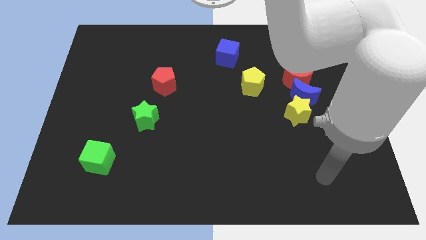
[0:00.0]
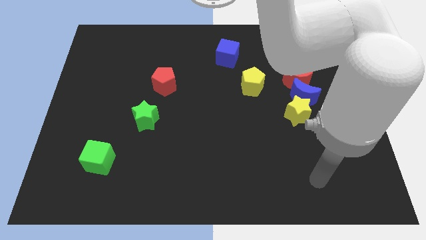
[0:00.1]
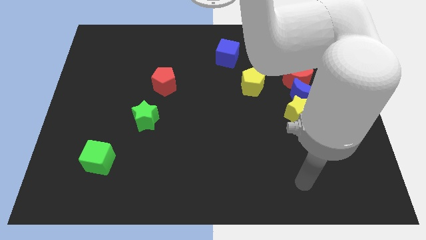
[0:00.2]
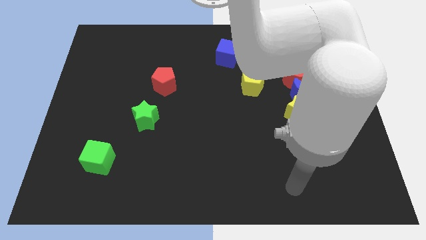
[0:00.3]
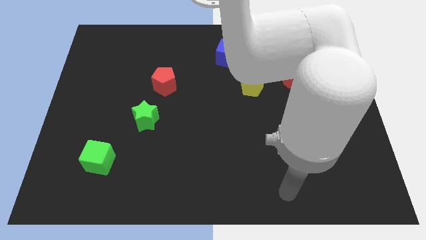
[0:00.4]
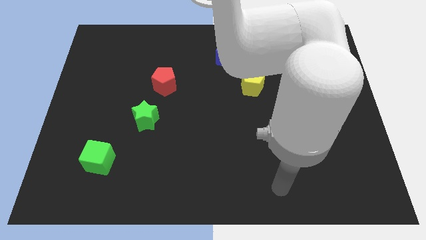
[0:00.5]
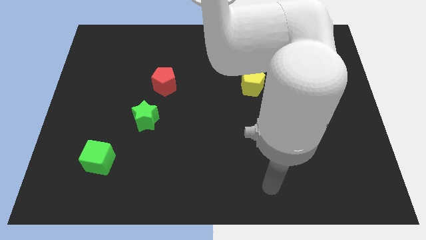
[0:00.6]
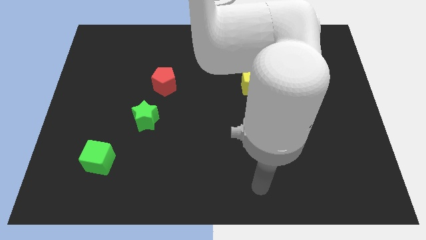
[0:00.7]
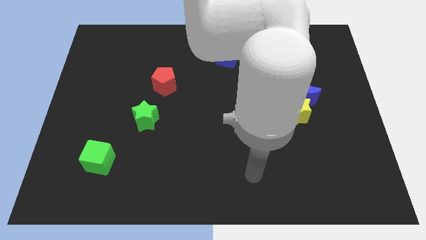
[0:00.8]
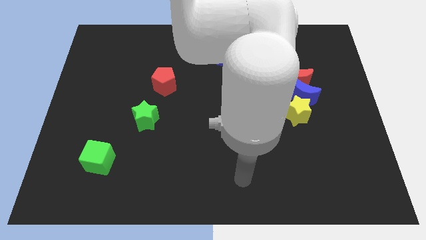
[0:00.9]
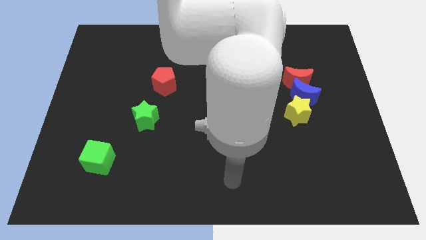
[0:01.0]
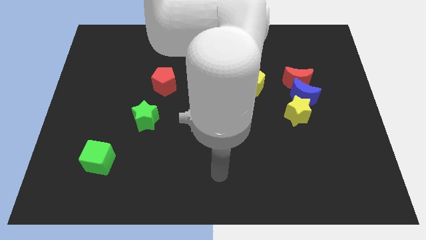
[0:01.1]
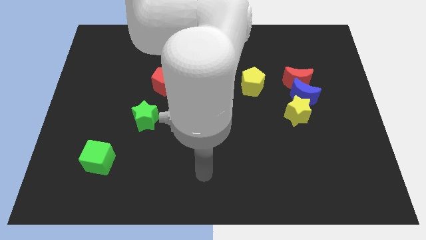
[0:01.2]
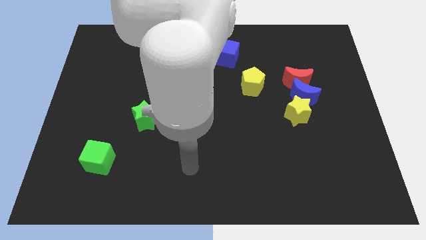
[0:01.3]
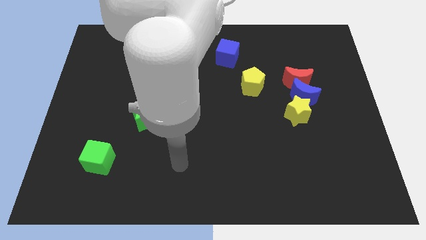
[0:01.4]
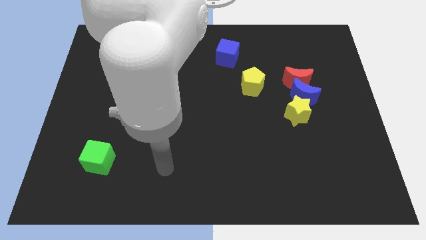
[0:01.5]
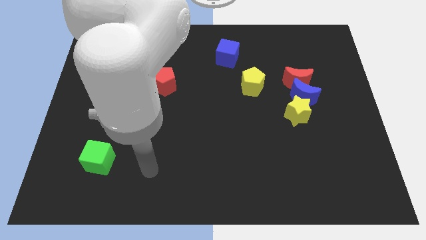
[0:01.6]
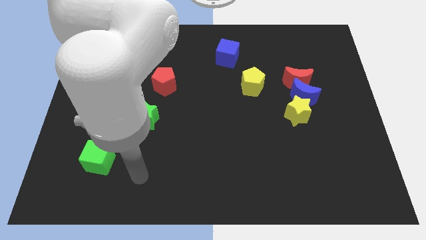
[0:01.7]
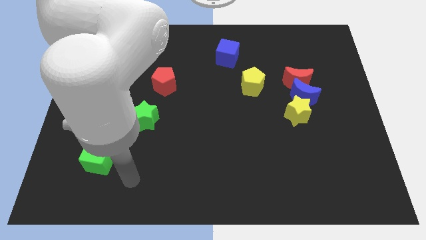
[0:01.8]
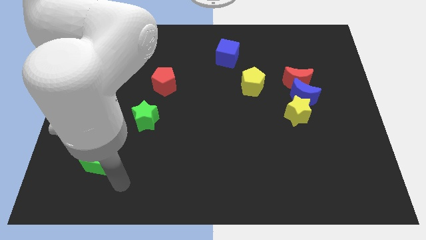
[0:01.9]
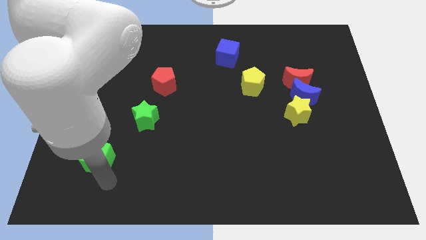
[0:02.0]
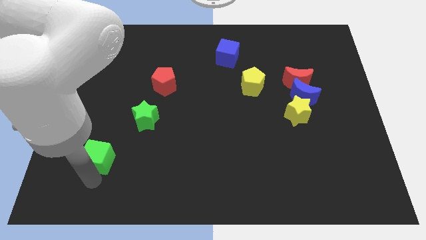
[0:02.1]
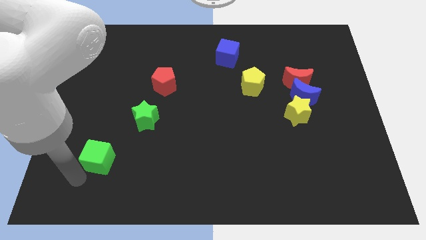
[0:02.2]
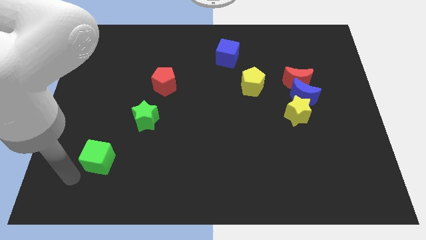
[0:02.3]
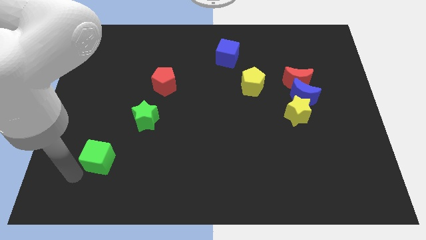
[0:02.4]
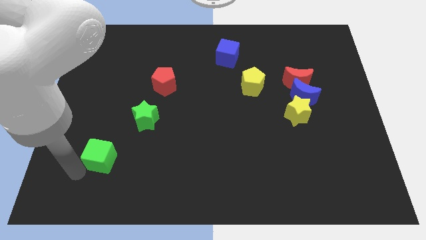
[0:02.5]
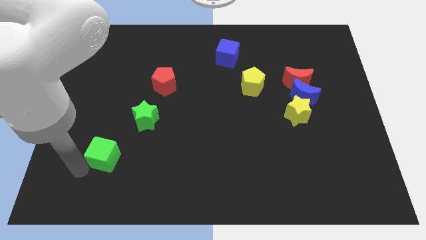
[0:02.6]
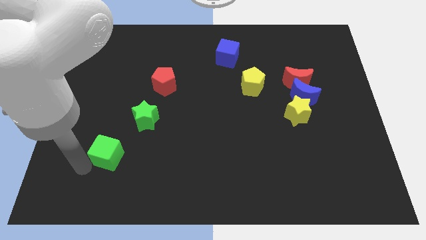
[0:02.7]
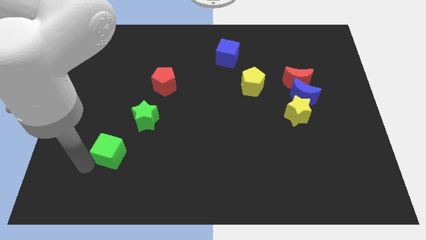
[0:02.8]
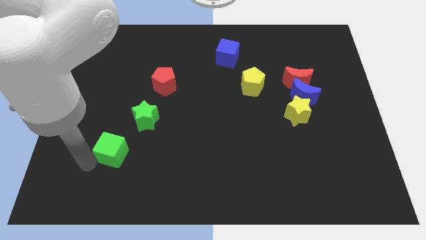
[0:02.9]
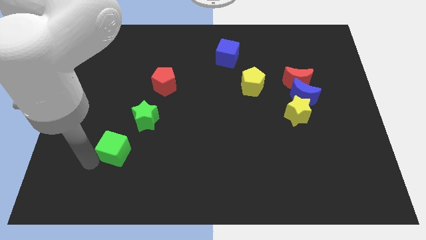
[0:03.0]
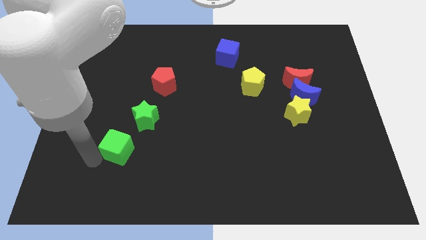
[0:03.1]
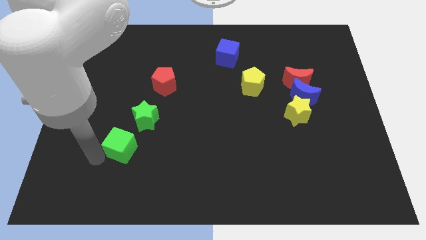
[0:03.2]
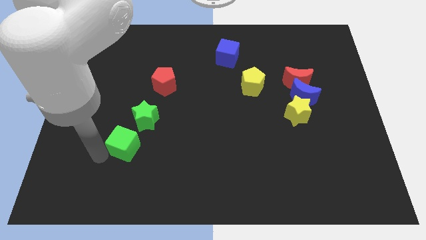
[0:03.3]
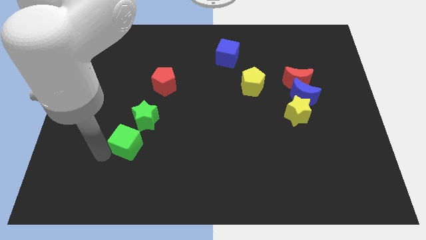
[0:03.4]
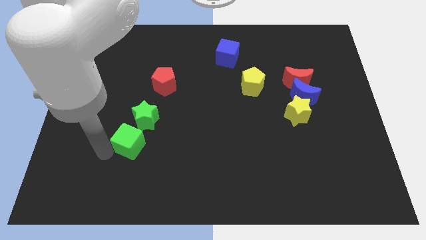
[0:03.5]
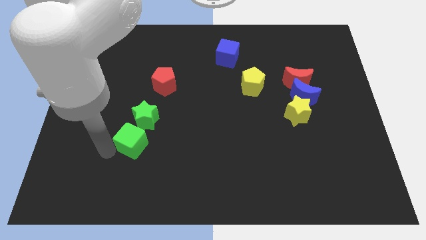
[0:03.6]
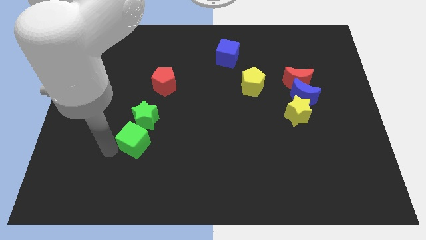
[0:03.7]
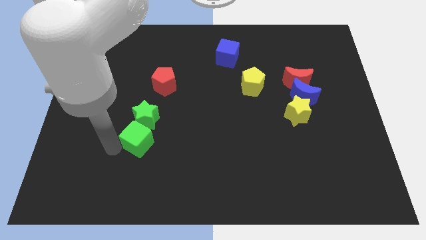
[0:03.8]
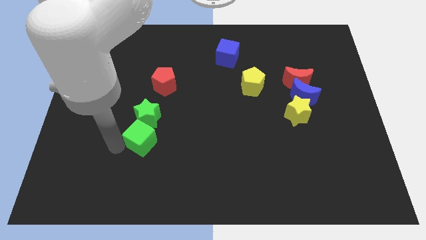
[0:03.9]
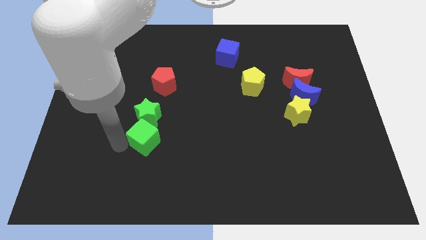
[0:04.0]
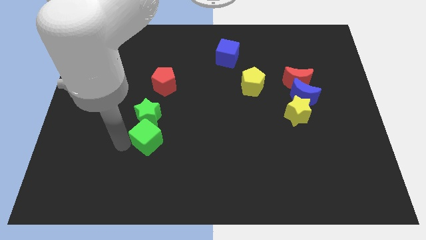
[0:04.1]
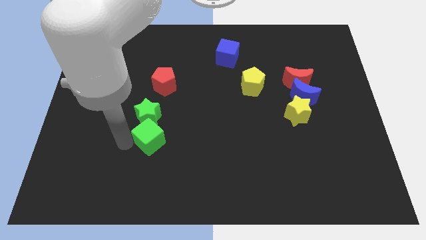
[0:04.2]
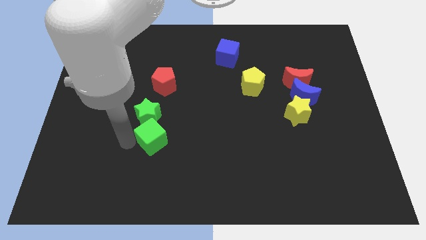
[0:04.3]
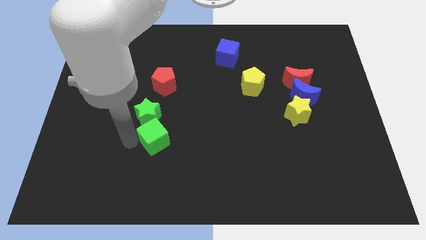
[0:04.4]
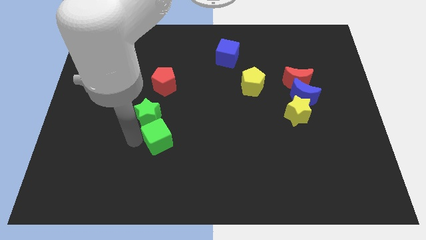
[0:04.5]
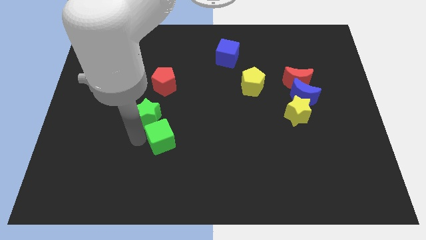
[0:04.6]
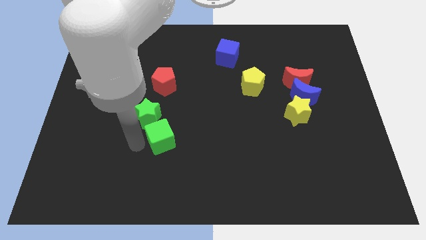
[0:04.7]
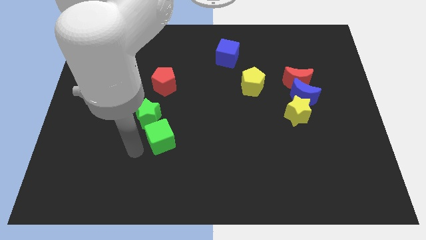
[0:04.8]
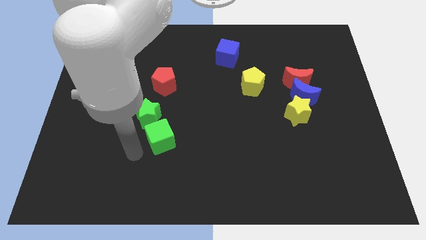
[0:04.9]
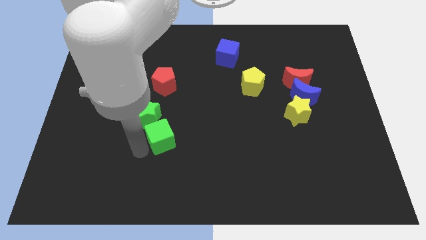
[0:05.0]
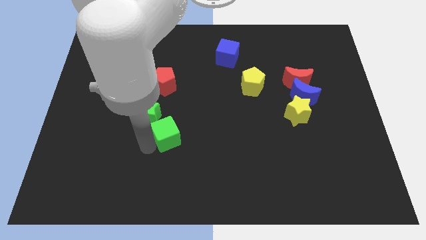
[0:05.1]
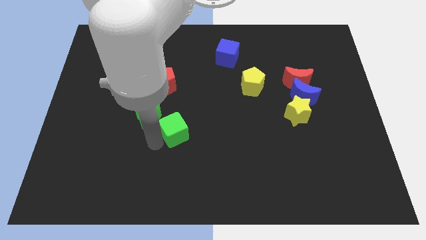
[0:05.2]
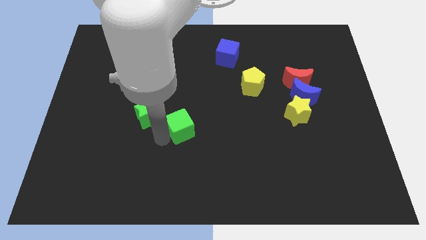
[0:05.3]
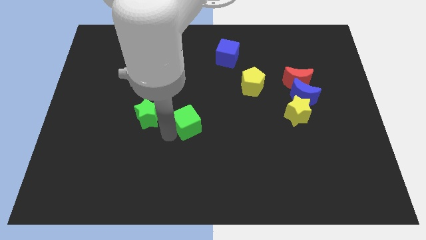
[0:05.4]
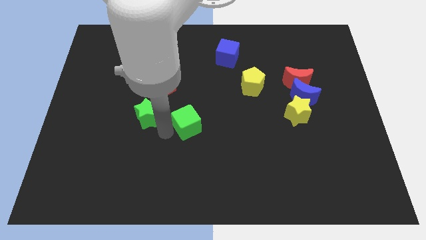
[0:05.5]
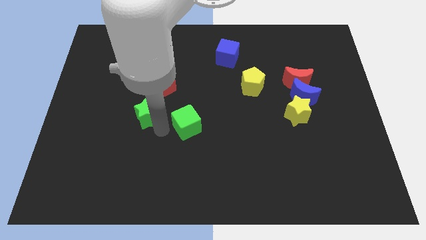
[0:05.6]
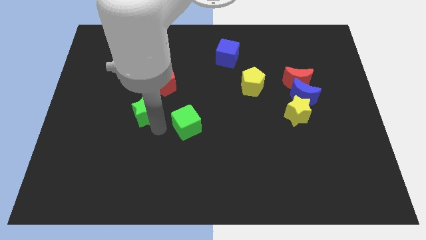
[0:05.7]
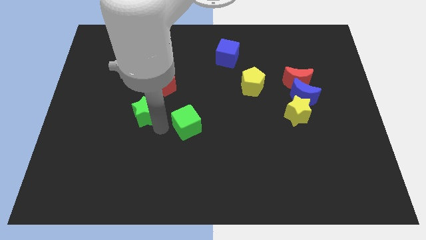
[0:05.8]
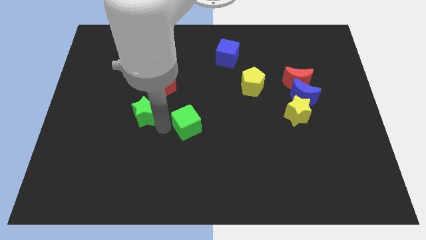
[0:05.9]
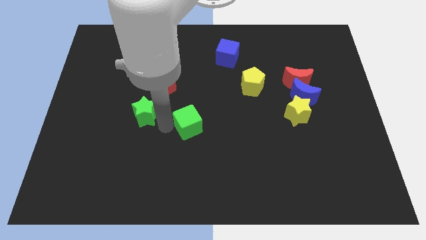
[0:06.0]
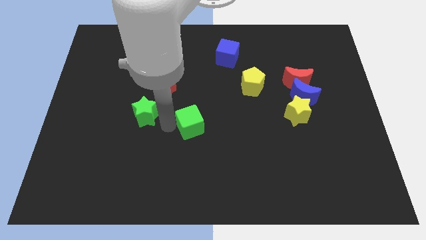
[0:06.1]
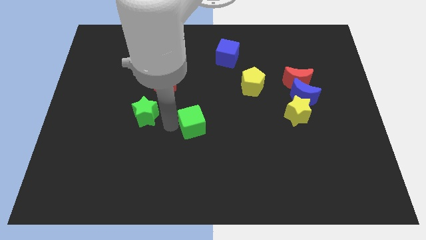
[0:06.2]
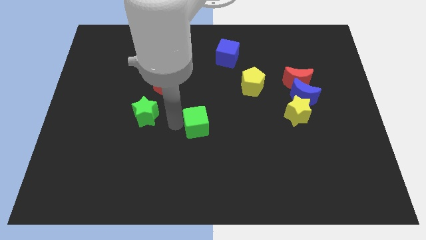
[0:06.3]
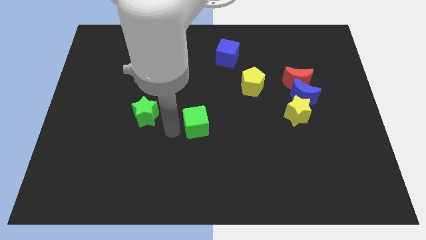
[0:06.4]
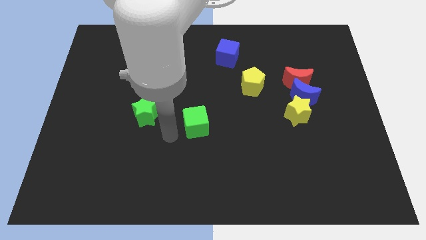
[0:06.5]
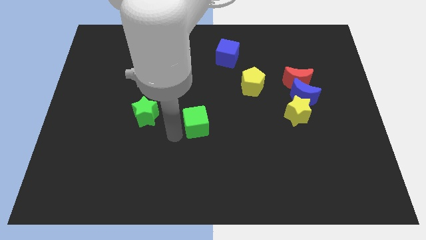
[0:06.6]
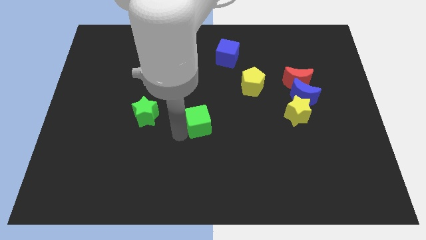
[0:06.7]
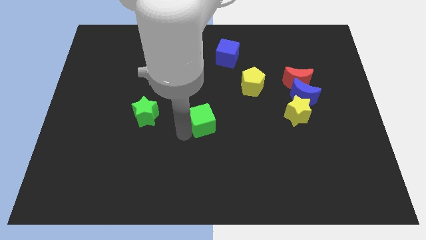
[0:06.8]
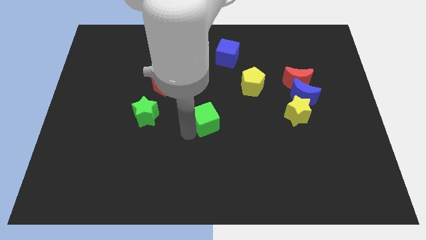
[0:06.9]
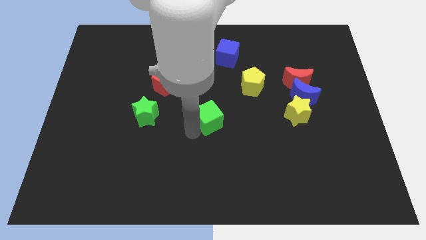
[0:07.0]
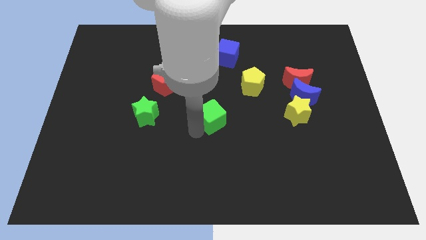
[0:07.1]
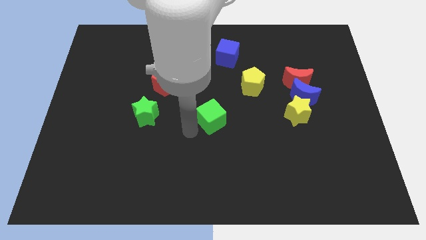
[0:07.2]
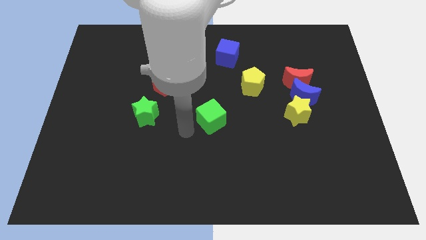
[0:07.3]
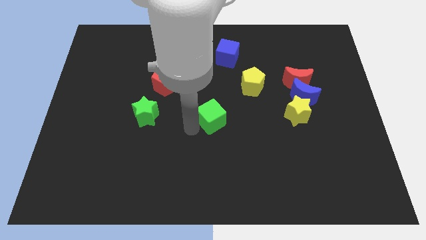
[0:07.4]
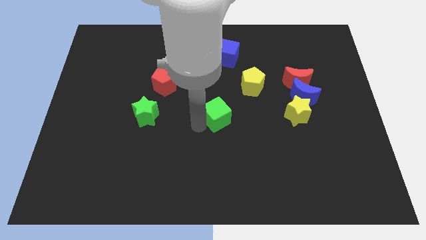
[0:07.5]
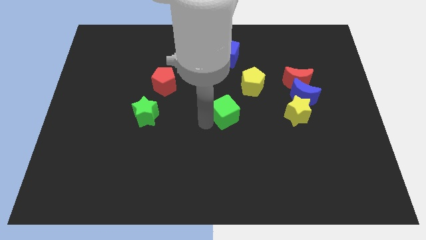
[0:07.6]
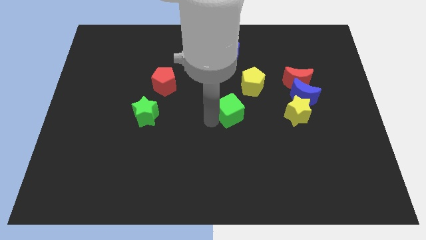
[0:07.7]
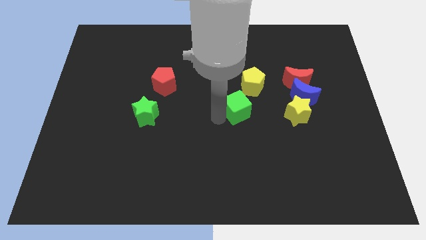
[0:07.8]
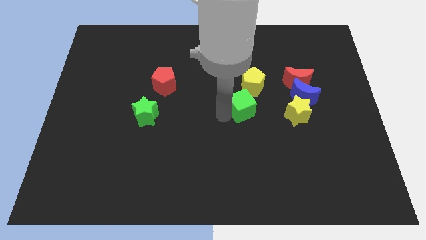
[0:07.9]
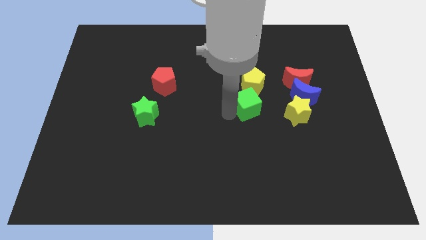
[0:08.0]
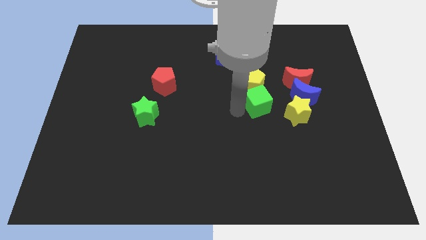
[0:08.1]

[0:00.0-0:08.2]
slide the green cube diagonally down and to the left of the red moon
